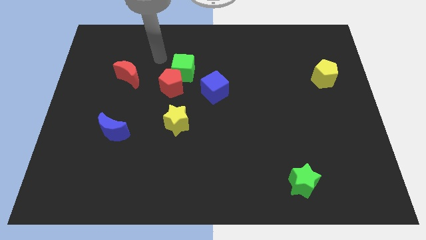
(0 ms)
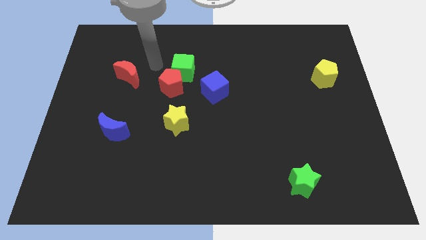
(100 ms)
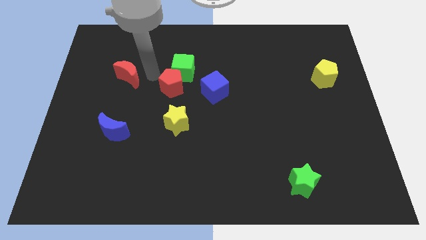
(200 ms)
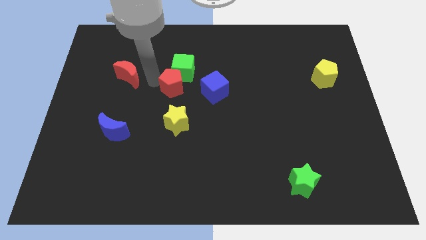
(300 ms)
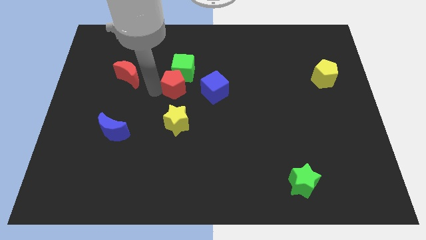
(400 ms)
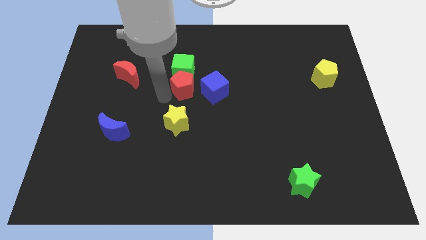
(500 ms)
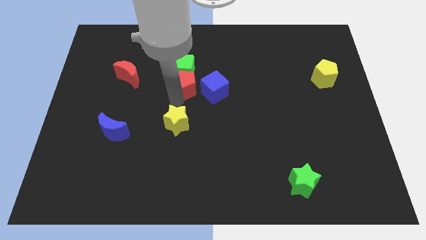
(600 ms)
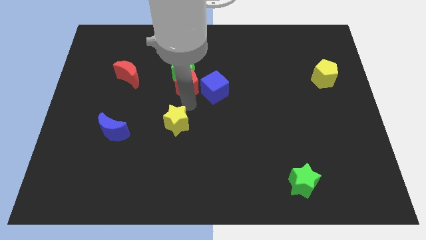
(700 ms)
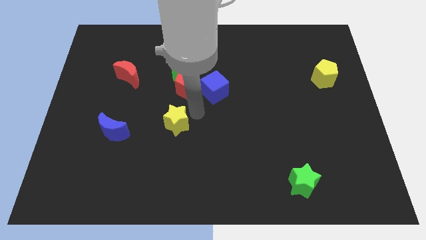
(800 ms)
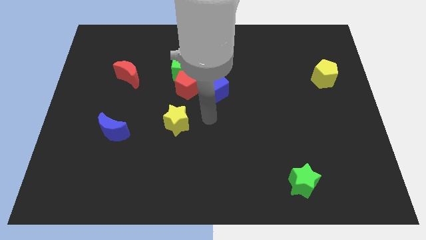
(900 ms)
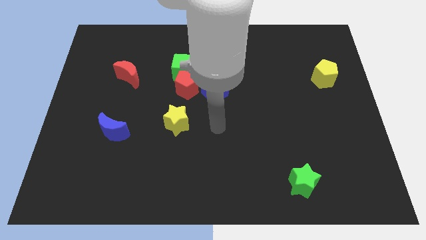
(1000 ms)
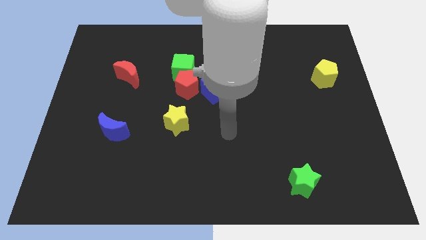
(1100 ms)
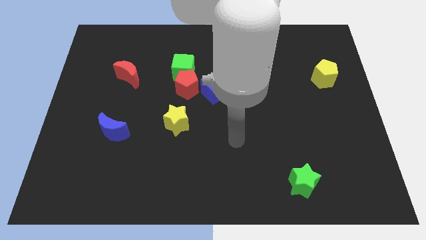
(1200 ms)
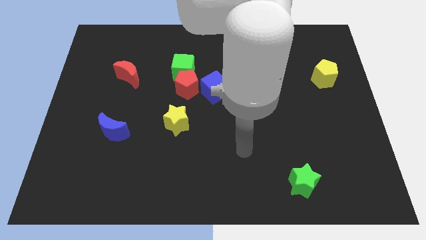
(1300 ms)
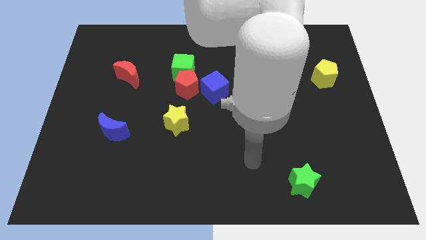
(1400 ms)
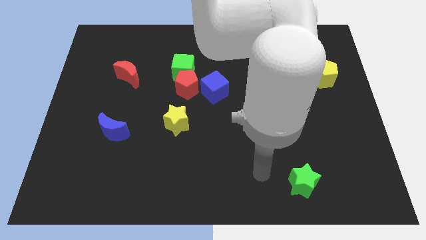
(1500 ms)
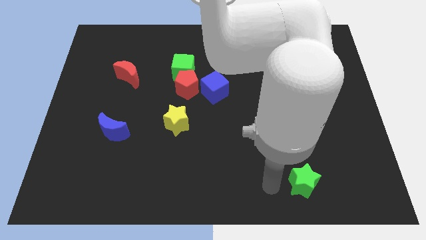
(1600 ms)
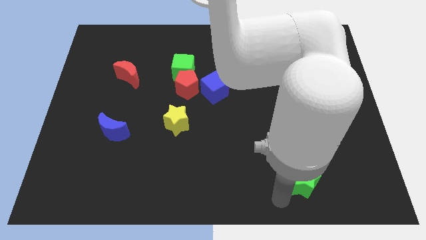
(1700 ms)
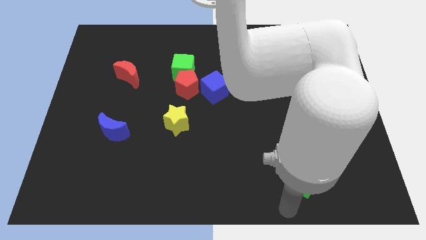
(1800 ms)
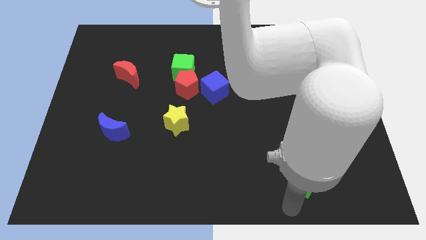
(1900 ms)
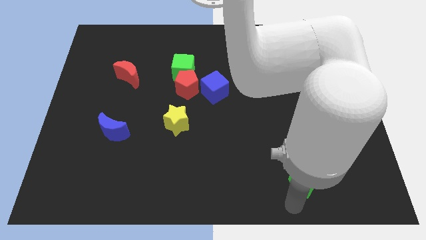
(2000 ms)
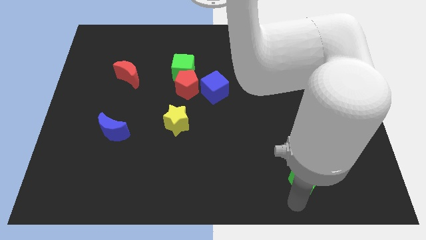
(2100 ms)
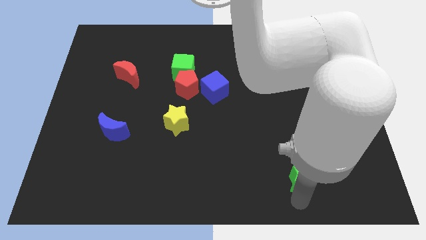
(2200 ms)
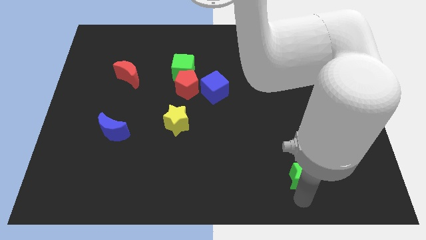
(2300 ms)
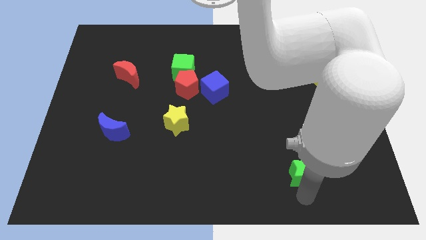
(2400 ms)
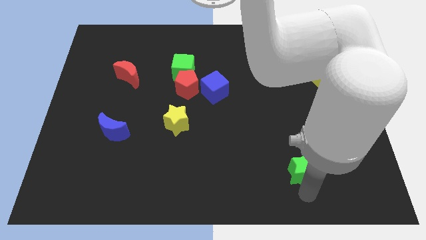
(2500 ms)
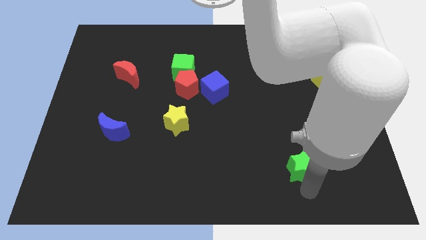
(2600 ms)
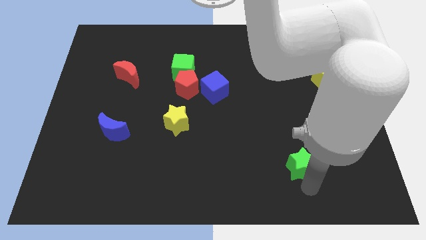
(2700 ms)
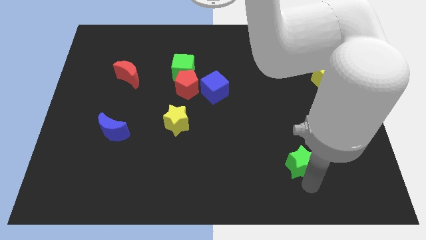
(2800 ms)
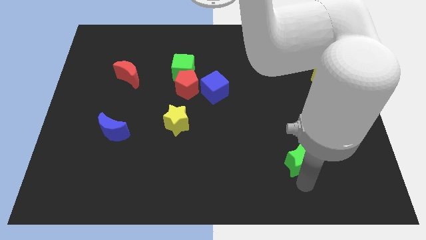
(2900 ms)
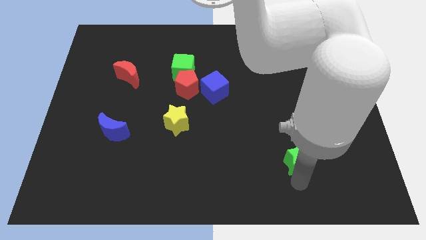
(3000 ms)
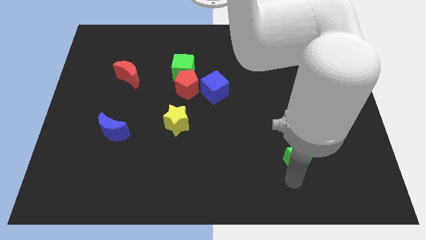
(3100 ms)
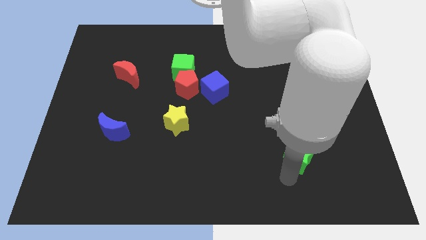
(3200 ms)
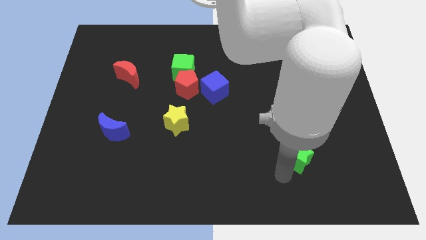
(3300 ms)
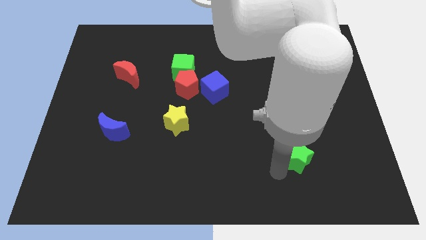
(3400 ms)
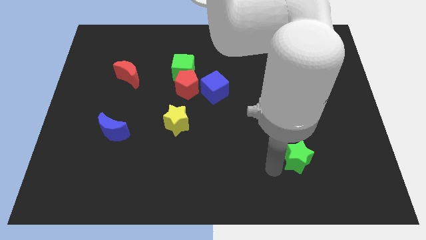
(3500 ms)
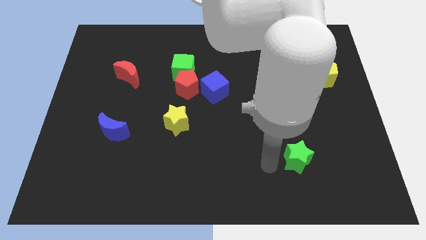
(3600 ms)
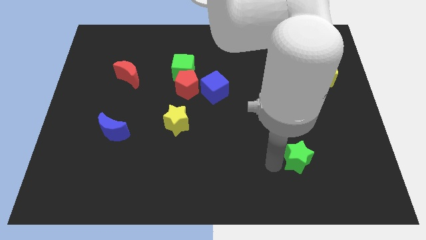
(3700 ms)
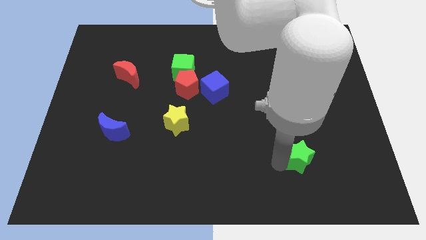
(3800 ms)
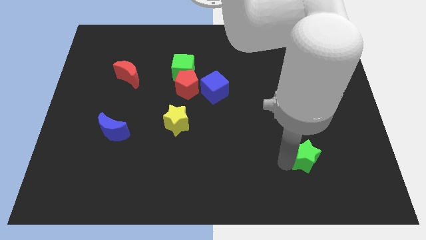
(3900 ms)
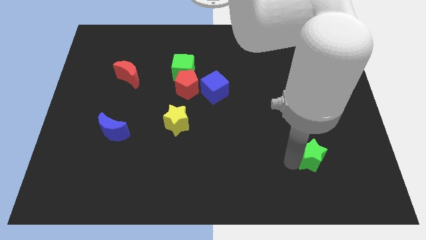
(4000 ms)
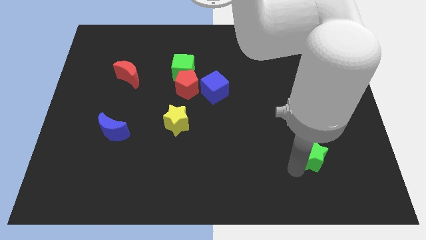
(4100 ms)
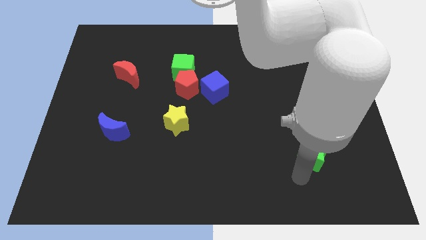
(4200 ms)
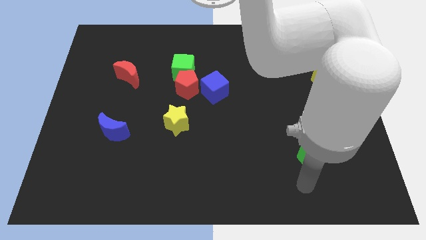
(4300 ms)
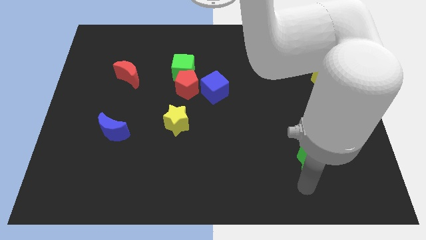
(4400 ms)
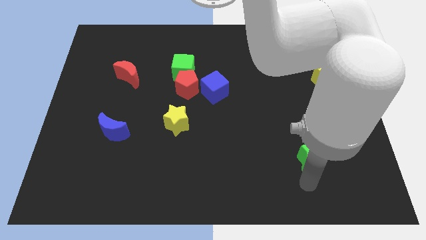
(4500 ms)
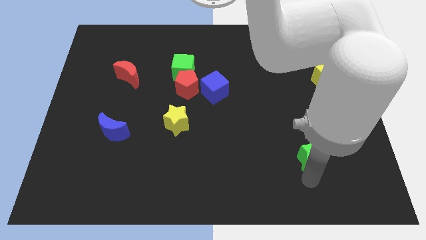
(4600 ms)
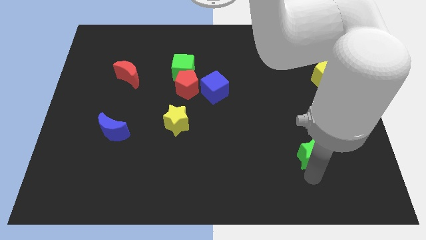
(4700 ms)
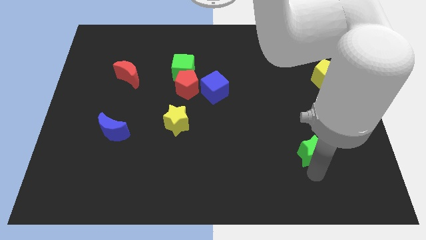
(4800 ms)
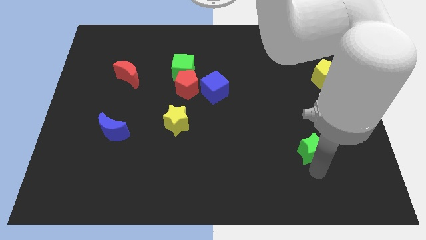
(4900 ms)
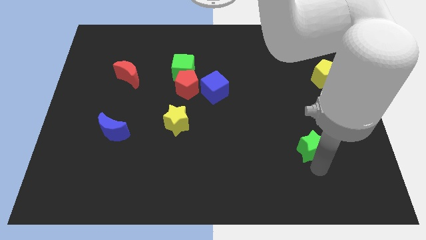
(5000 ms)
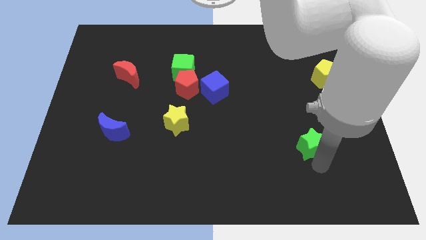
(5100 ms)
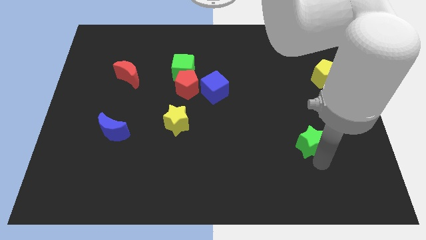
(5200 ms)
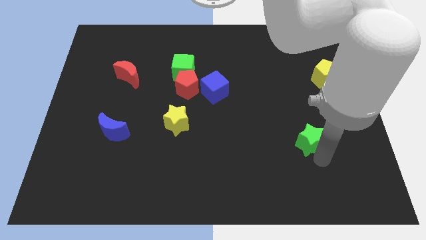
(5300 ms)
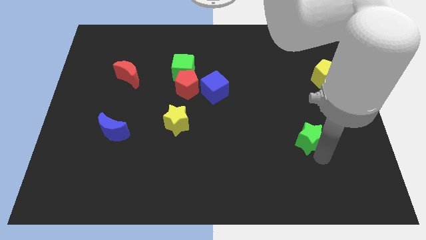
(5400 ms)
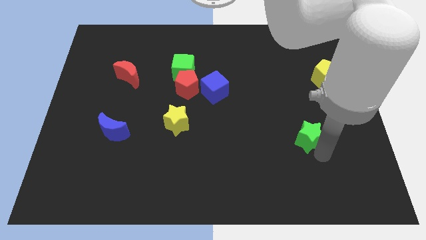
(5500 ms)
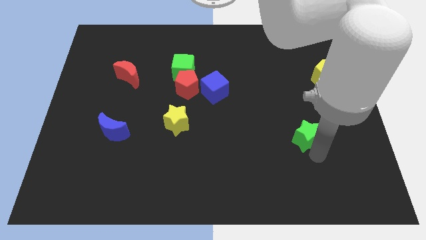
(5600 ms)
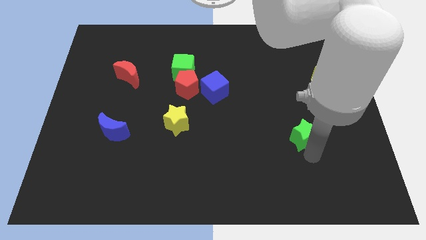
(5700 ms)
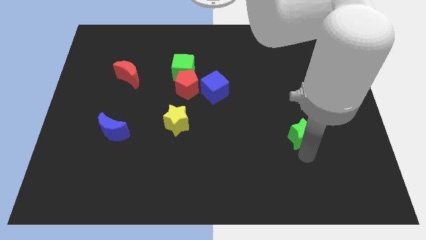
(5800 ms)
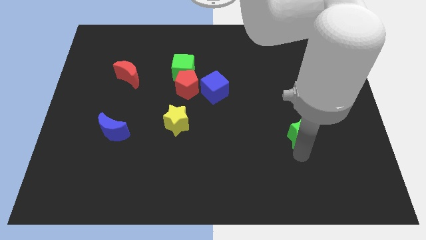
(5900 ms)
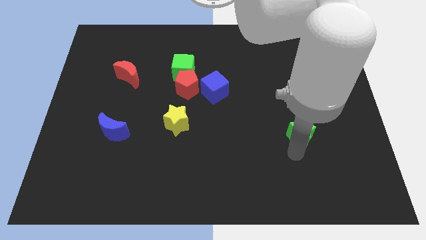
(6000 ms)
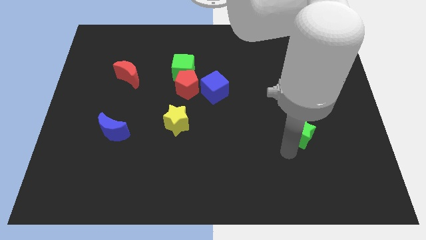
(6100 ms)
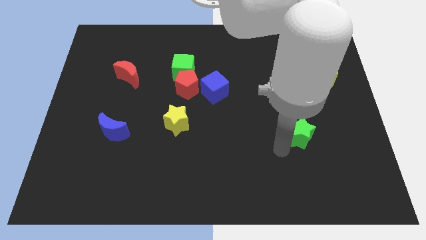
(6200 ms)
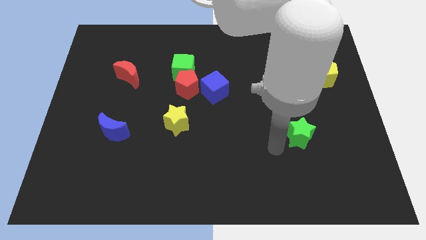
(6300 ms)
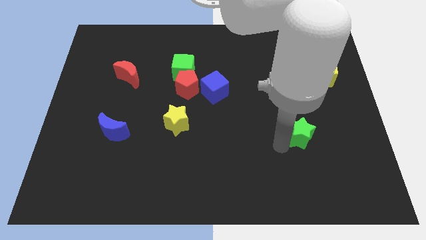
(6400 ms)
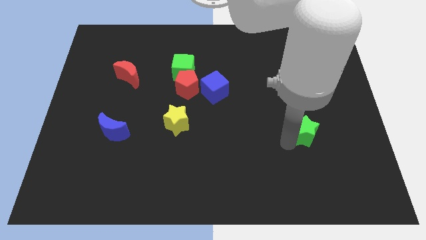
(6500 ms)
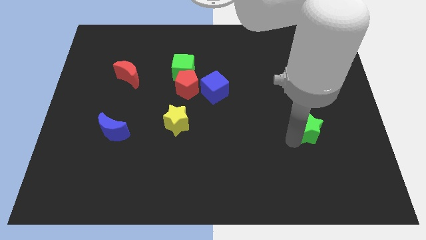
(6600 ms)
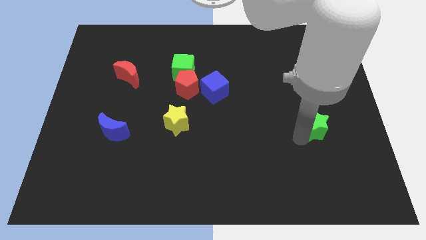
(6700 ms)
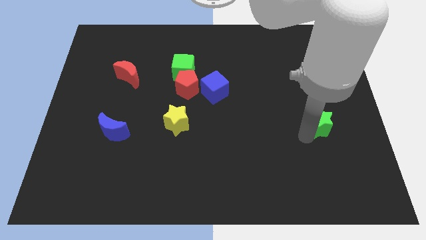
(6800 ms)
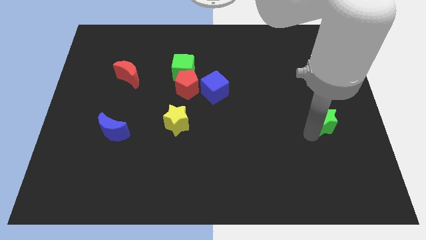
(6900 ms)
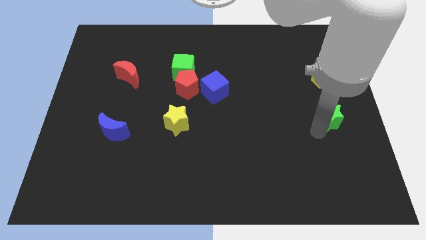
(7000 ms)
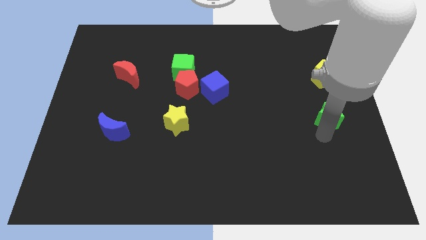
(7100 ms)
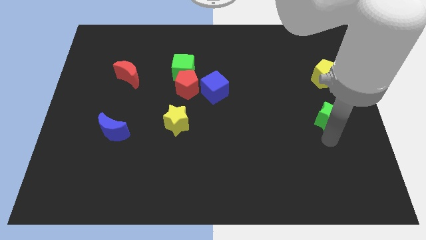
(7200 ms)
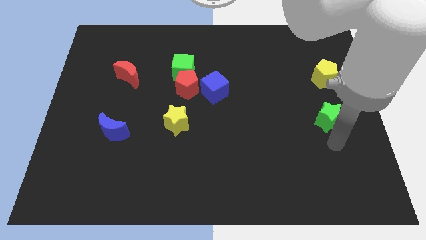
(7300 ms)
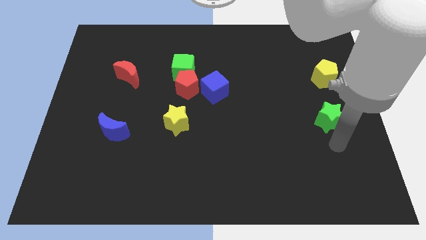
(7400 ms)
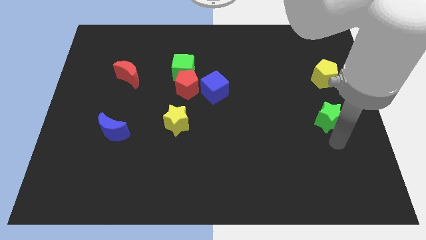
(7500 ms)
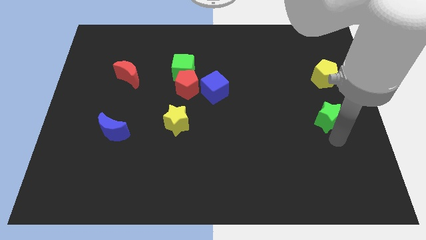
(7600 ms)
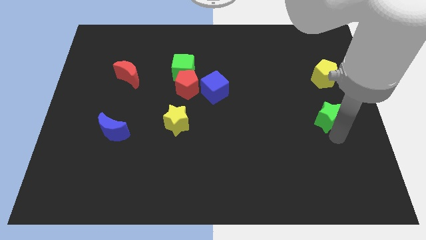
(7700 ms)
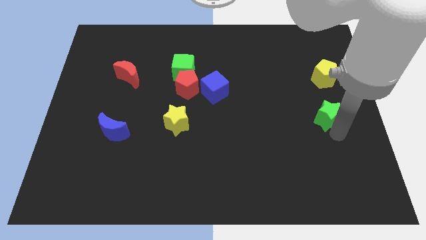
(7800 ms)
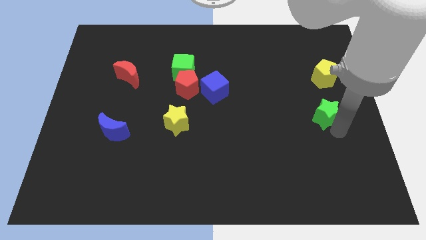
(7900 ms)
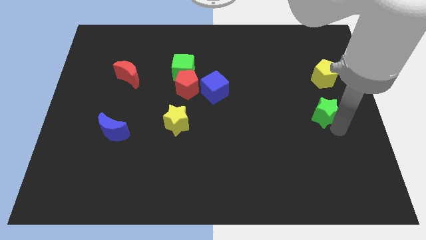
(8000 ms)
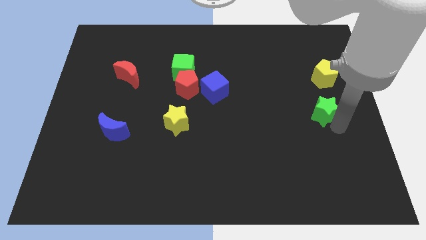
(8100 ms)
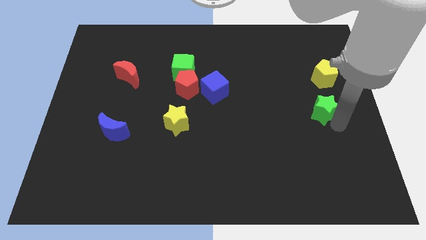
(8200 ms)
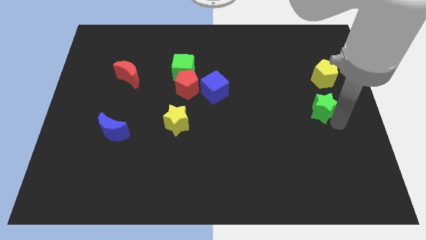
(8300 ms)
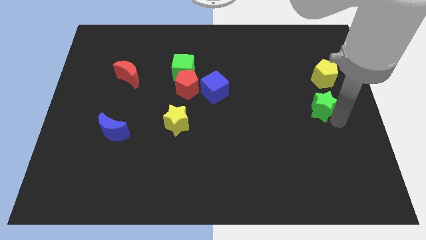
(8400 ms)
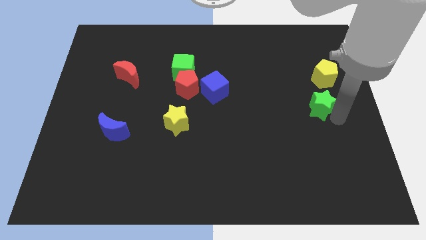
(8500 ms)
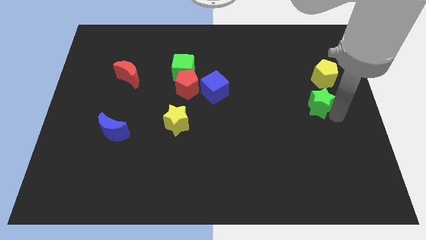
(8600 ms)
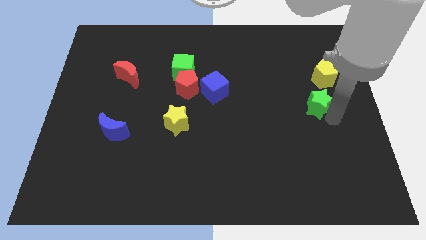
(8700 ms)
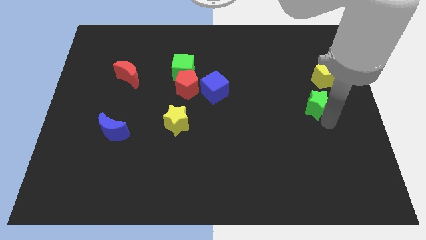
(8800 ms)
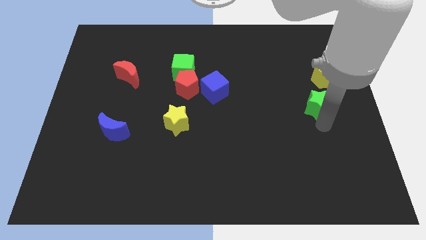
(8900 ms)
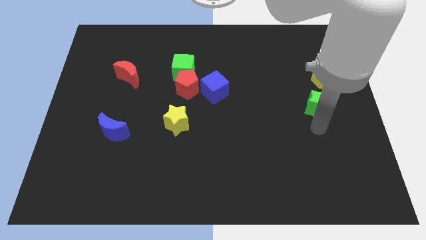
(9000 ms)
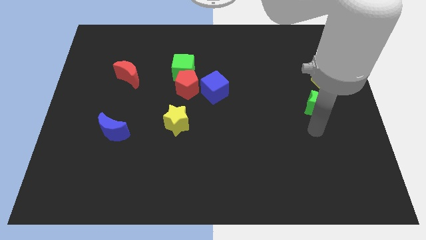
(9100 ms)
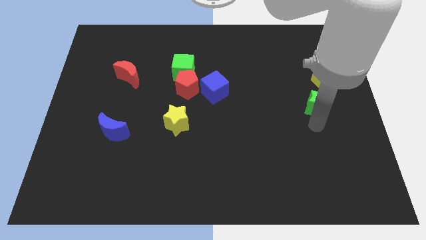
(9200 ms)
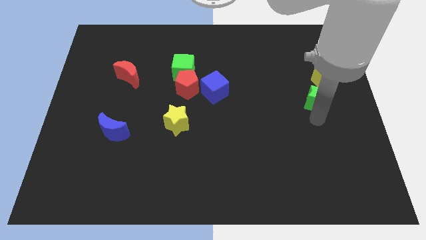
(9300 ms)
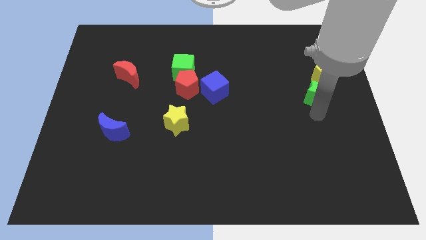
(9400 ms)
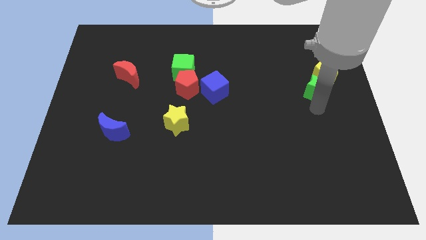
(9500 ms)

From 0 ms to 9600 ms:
put the green star towards the yellow pentagon
